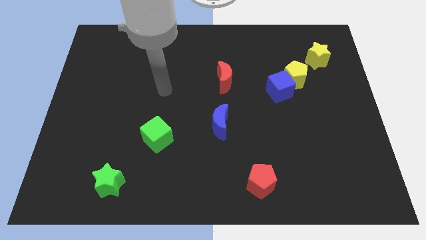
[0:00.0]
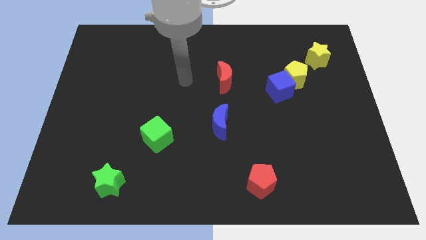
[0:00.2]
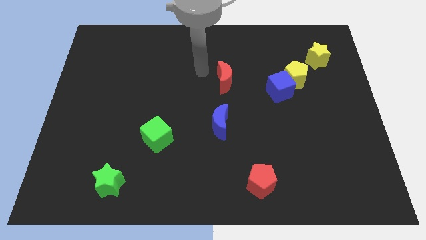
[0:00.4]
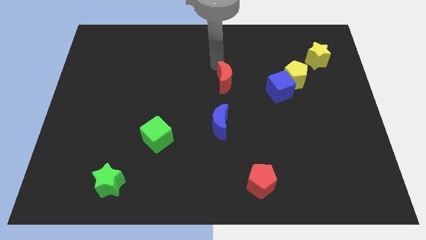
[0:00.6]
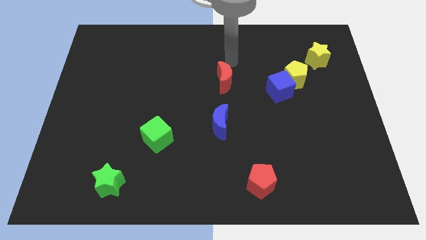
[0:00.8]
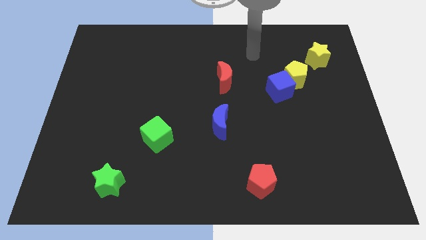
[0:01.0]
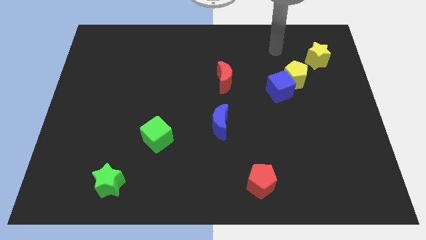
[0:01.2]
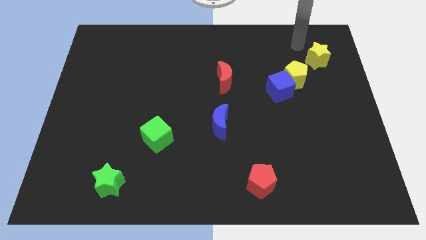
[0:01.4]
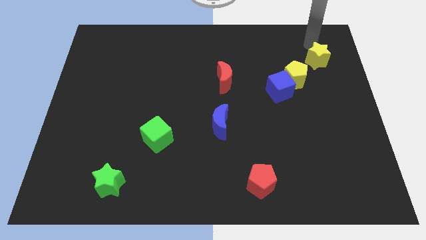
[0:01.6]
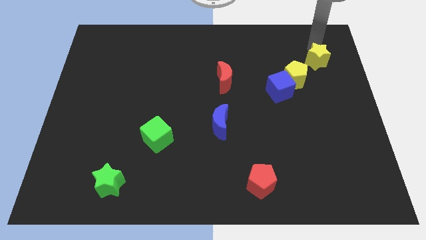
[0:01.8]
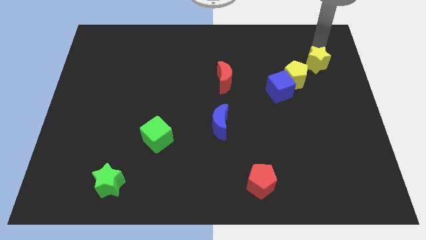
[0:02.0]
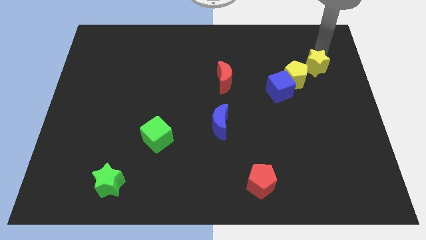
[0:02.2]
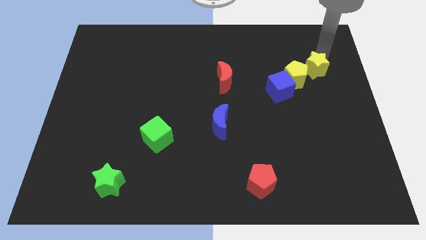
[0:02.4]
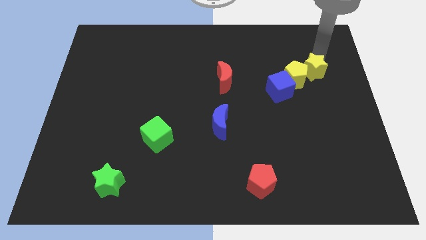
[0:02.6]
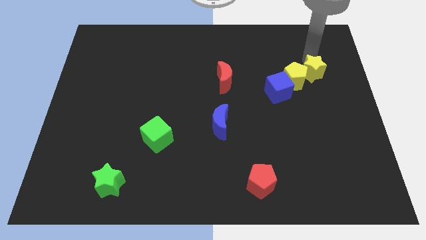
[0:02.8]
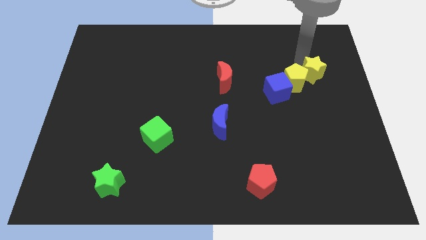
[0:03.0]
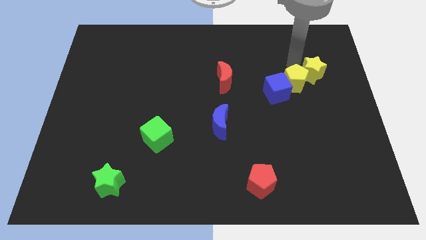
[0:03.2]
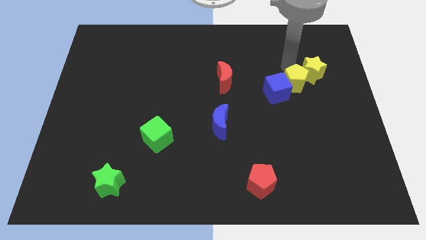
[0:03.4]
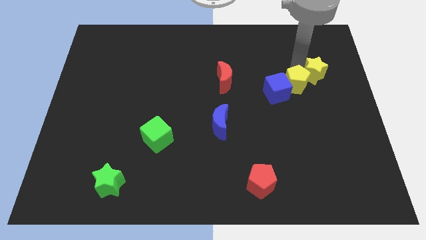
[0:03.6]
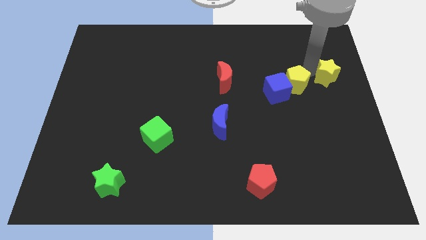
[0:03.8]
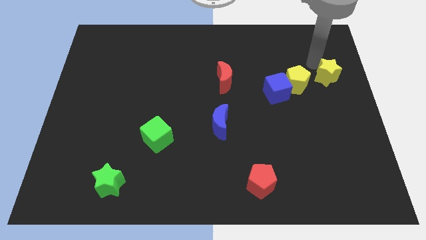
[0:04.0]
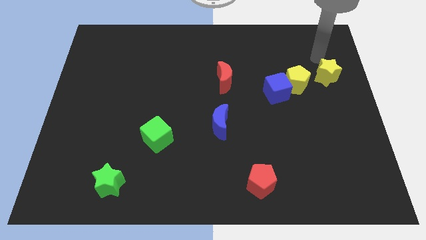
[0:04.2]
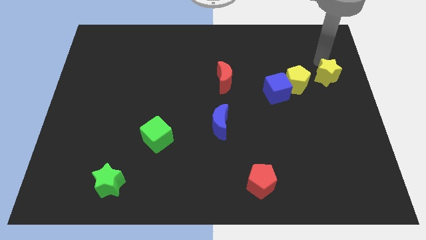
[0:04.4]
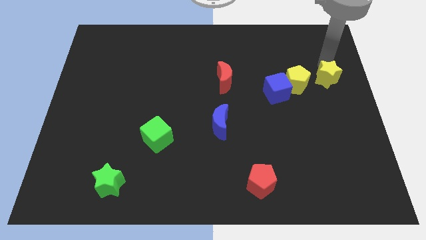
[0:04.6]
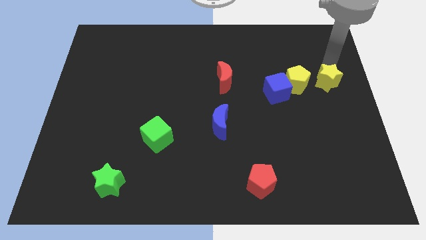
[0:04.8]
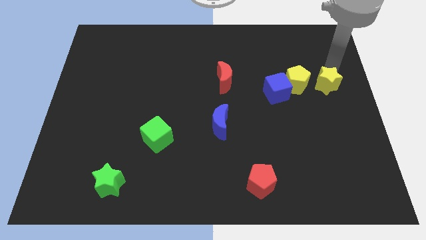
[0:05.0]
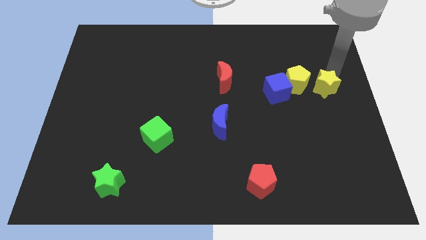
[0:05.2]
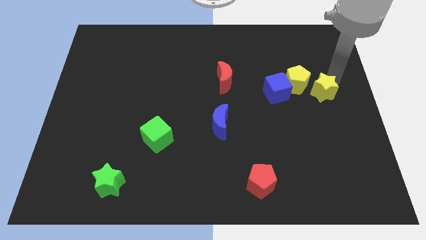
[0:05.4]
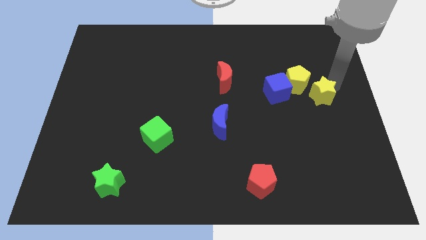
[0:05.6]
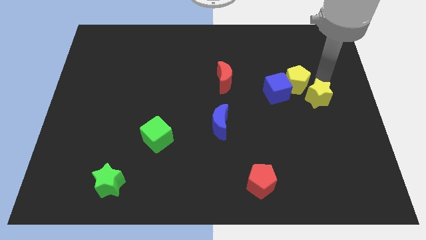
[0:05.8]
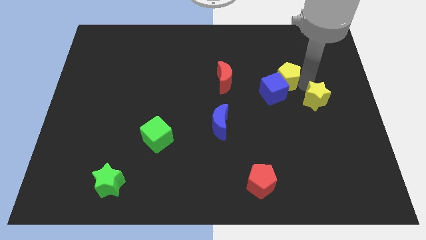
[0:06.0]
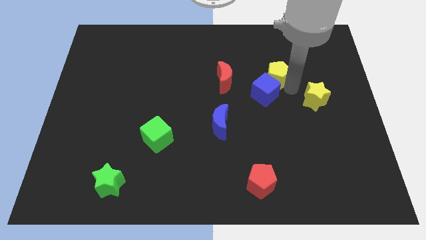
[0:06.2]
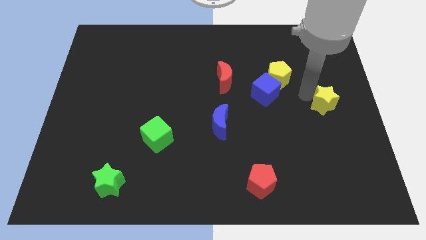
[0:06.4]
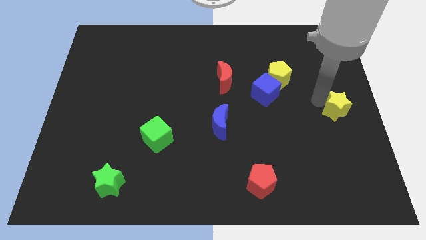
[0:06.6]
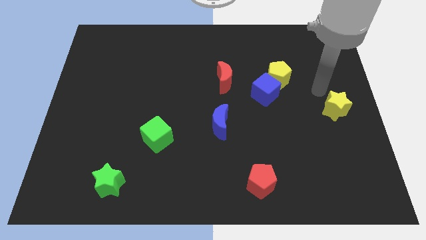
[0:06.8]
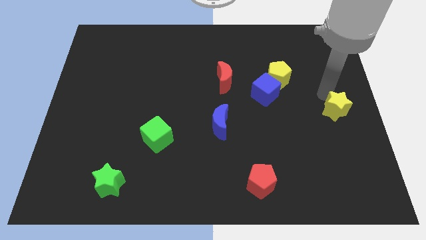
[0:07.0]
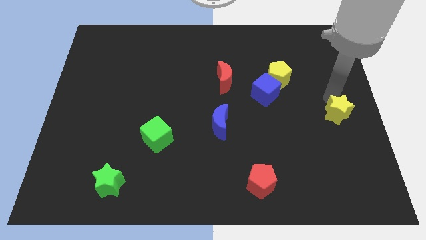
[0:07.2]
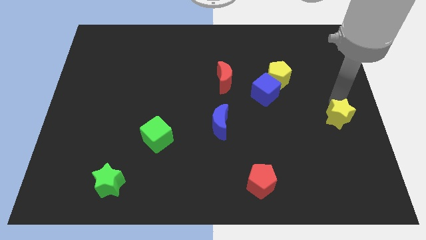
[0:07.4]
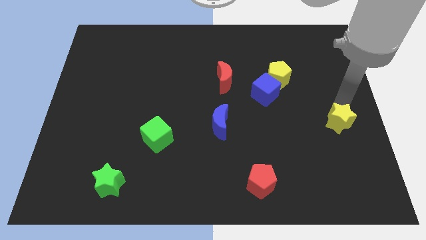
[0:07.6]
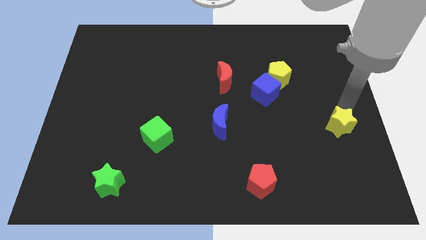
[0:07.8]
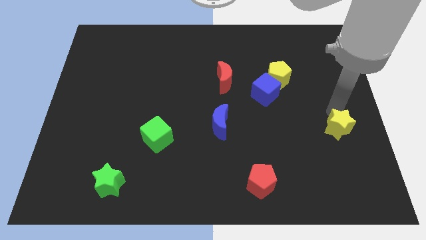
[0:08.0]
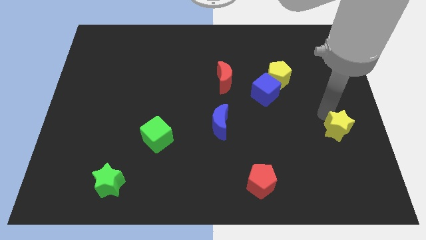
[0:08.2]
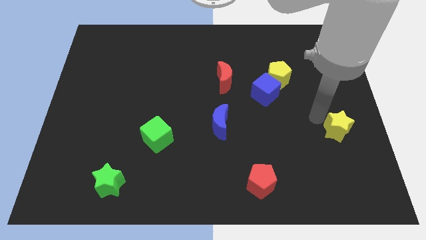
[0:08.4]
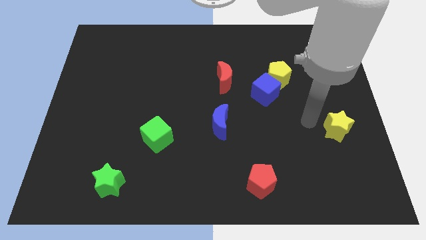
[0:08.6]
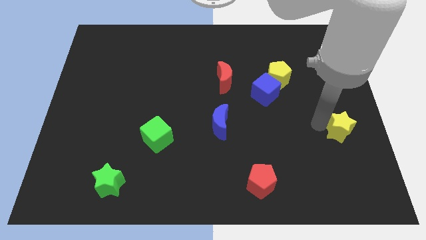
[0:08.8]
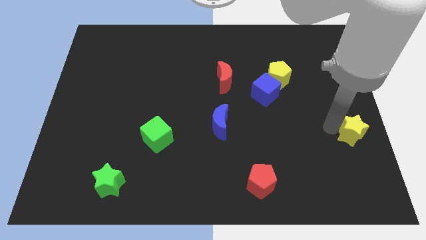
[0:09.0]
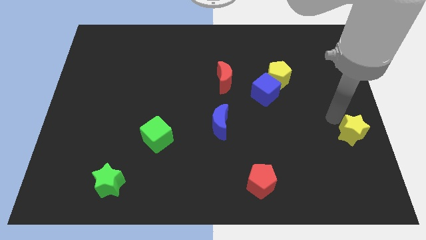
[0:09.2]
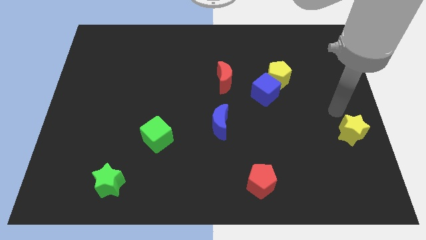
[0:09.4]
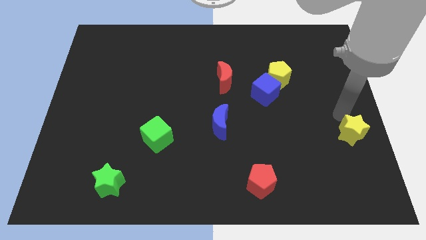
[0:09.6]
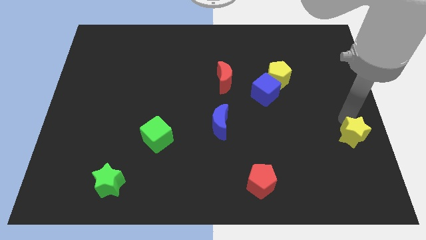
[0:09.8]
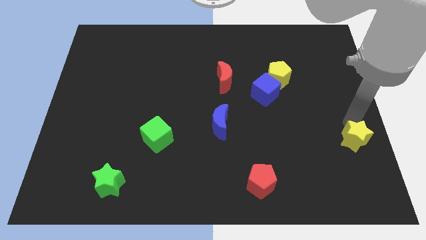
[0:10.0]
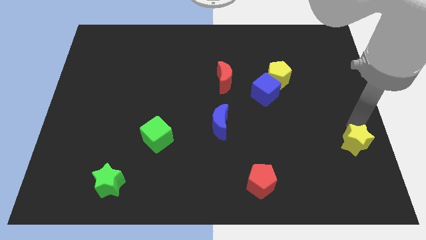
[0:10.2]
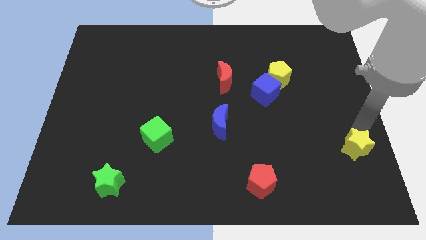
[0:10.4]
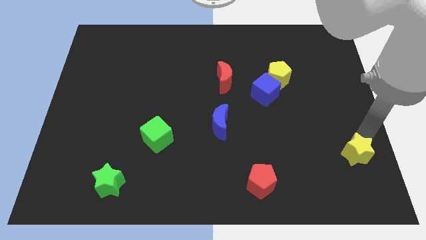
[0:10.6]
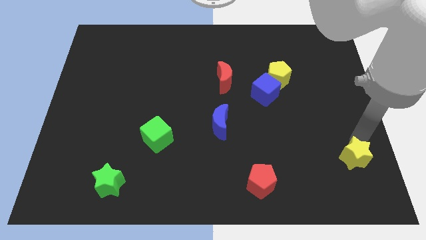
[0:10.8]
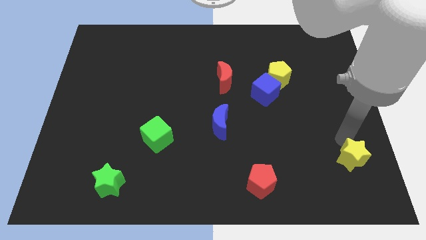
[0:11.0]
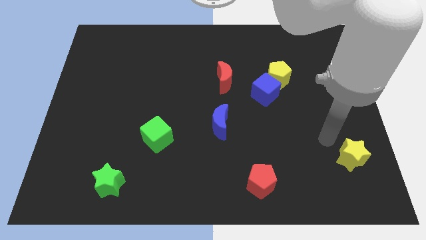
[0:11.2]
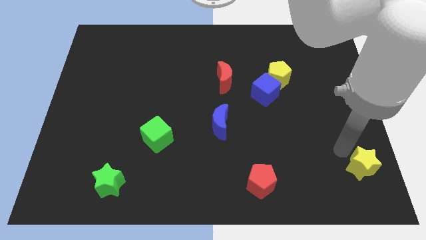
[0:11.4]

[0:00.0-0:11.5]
push the yellow star to the bottom right of the board
